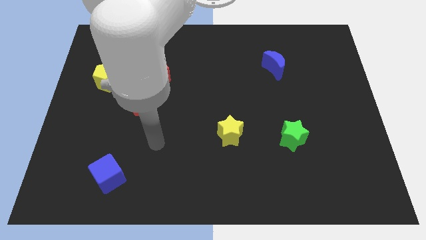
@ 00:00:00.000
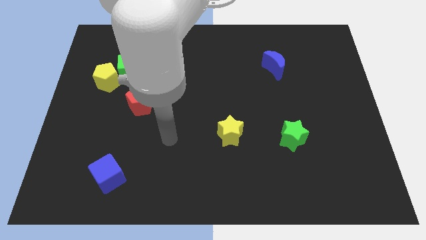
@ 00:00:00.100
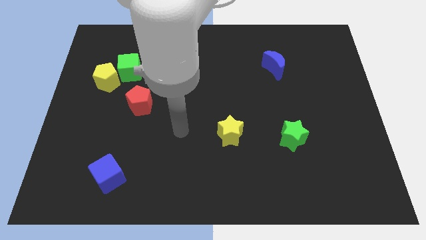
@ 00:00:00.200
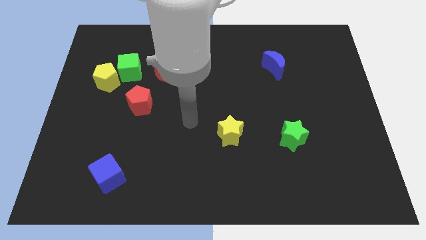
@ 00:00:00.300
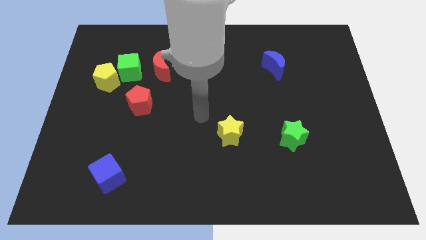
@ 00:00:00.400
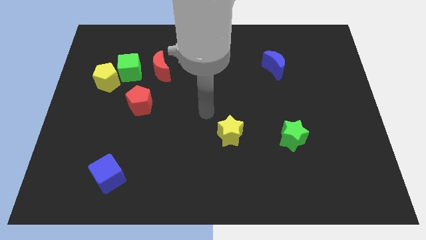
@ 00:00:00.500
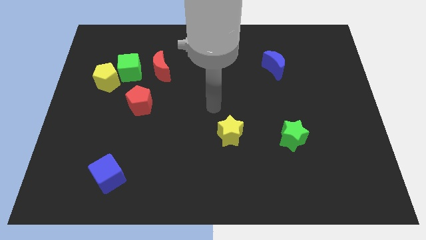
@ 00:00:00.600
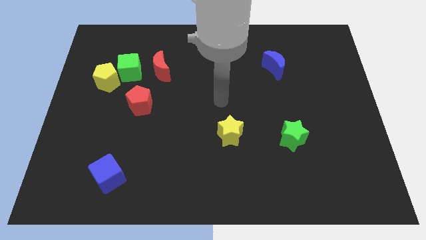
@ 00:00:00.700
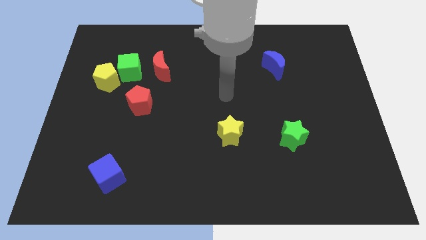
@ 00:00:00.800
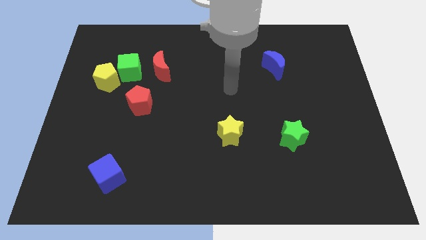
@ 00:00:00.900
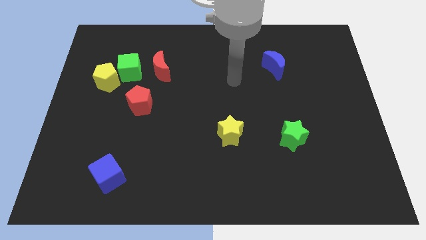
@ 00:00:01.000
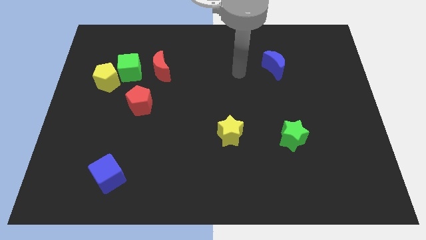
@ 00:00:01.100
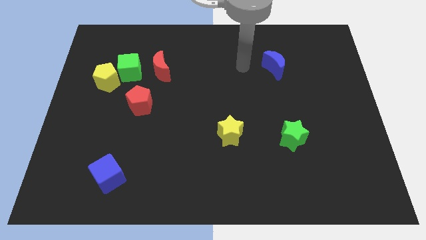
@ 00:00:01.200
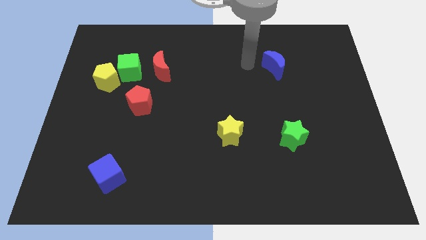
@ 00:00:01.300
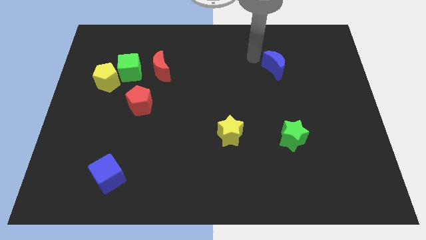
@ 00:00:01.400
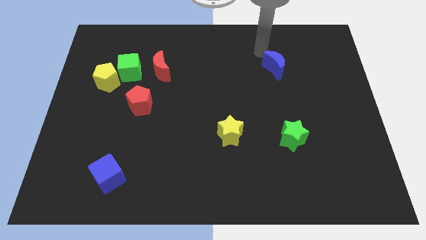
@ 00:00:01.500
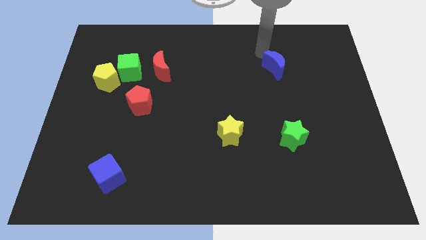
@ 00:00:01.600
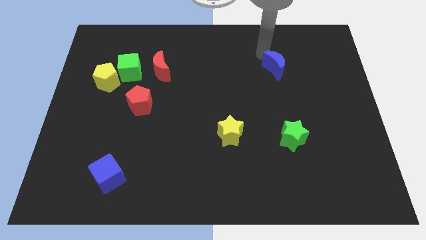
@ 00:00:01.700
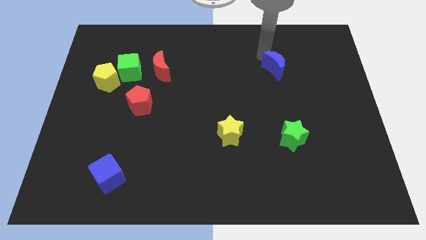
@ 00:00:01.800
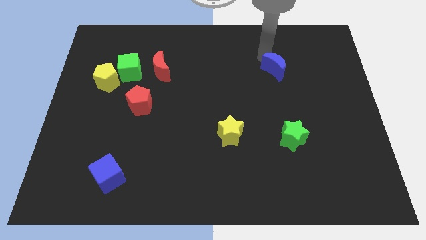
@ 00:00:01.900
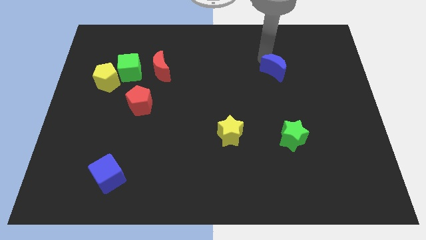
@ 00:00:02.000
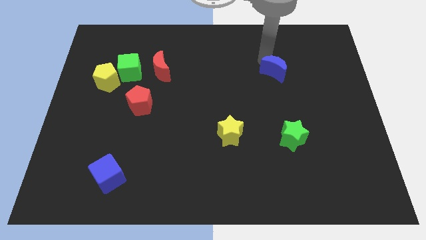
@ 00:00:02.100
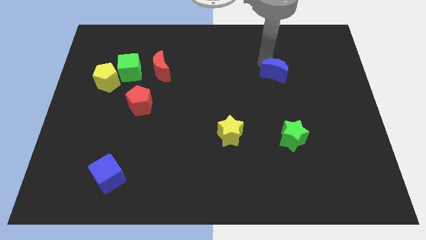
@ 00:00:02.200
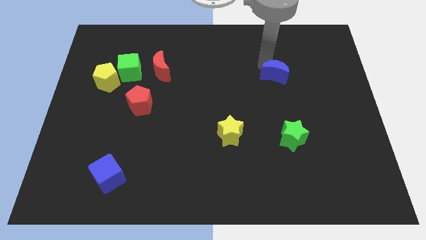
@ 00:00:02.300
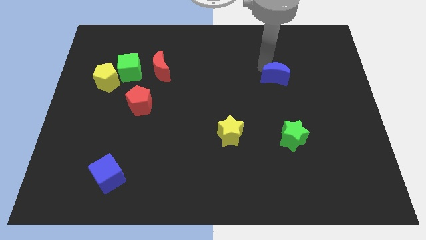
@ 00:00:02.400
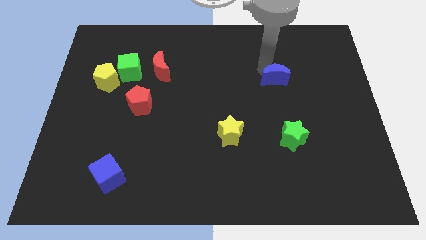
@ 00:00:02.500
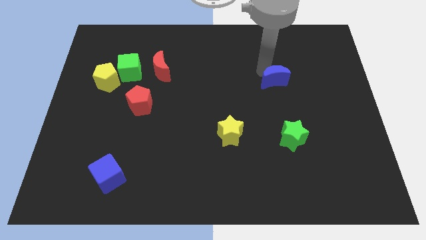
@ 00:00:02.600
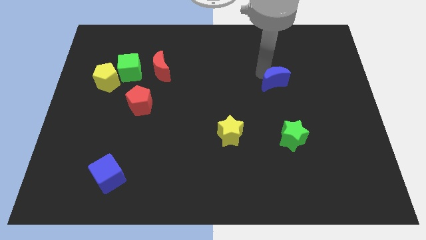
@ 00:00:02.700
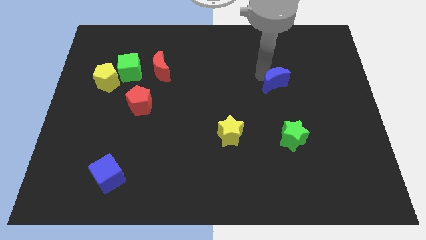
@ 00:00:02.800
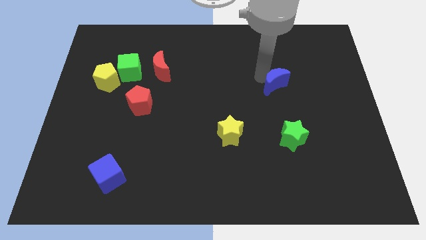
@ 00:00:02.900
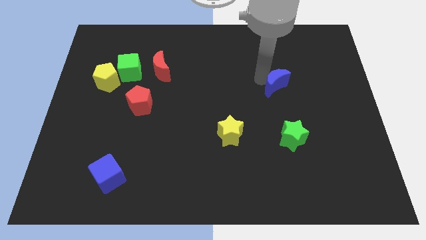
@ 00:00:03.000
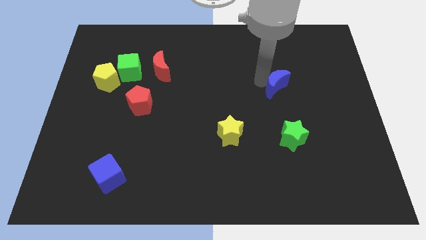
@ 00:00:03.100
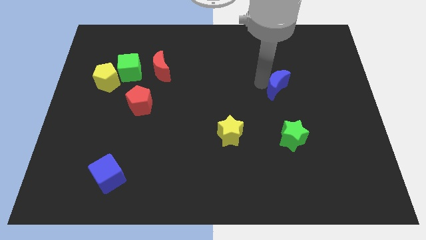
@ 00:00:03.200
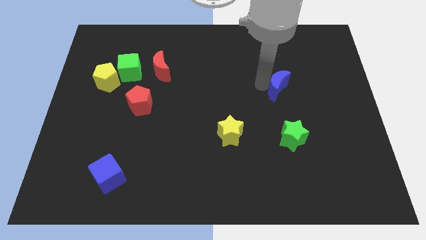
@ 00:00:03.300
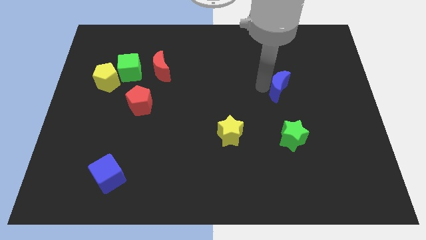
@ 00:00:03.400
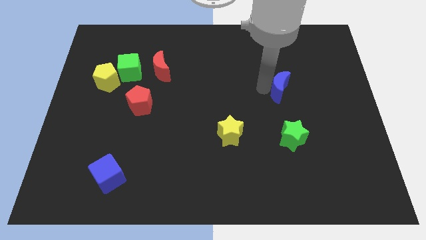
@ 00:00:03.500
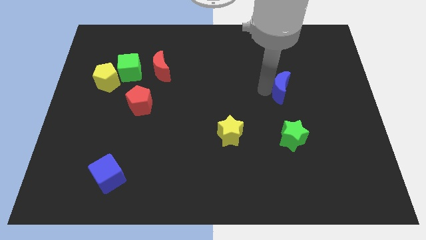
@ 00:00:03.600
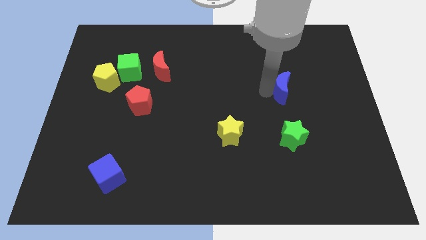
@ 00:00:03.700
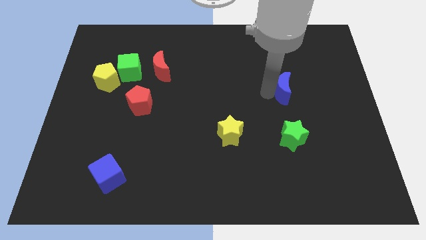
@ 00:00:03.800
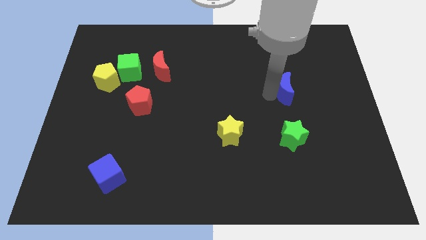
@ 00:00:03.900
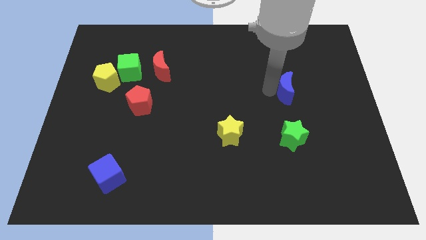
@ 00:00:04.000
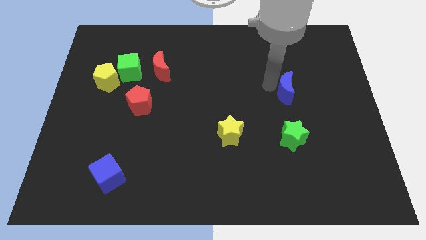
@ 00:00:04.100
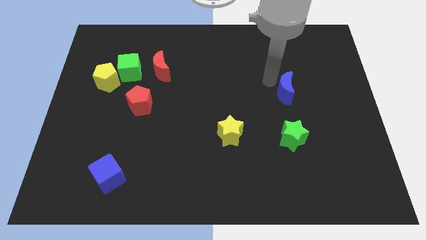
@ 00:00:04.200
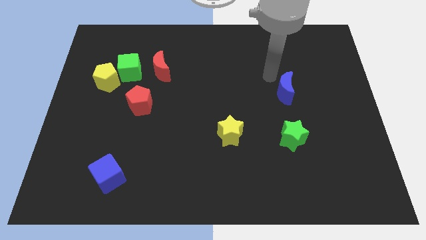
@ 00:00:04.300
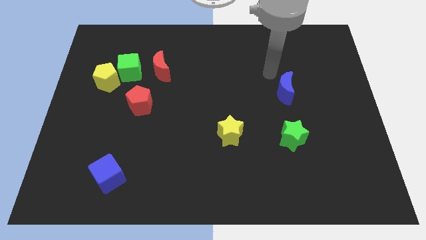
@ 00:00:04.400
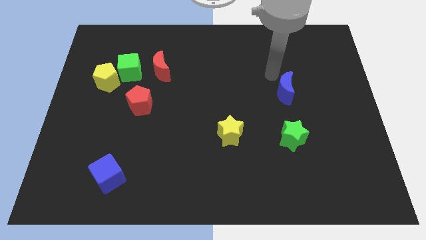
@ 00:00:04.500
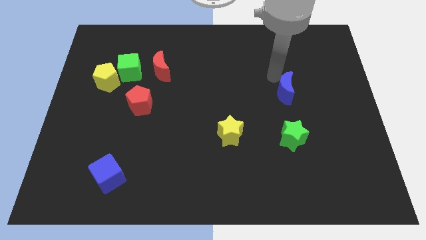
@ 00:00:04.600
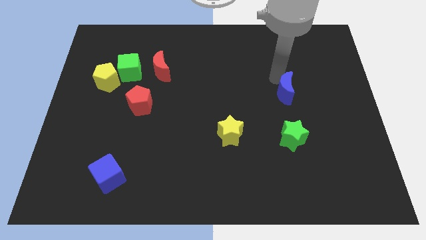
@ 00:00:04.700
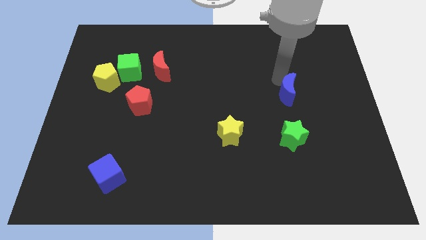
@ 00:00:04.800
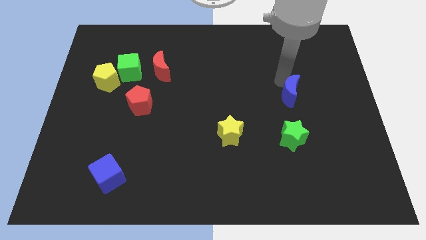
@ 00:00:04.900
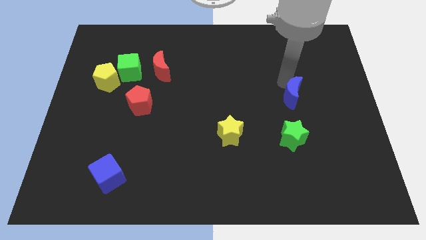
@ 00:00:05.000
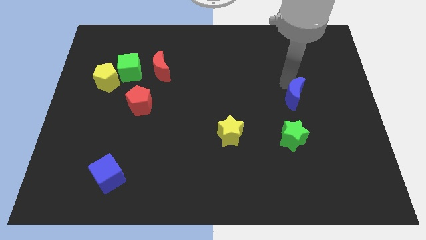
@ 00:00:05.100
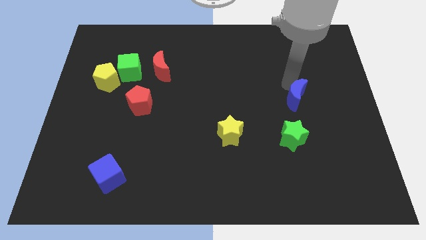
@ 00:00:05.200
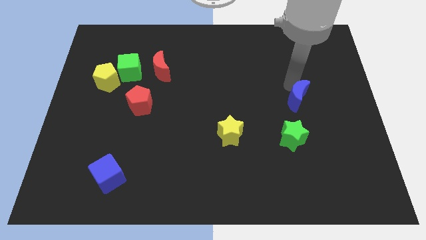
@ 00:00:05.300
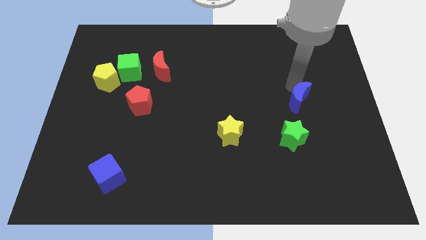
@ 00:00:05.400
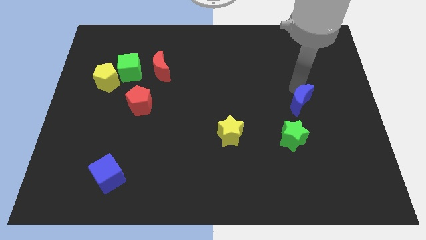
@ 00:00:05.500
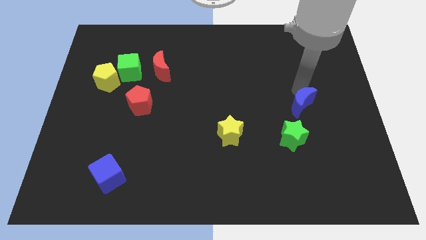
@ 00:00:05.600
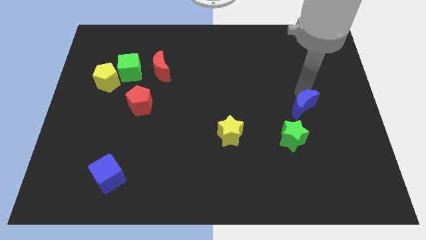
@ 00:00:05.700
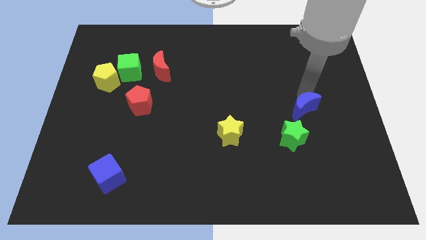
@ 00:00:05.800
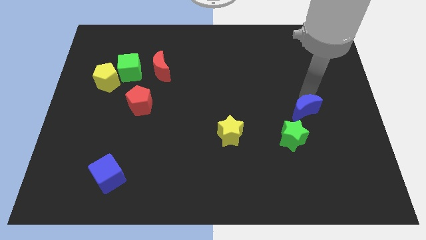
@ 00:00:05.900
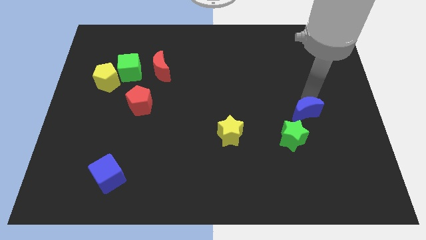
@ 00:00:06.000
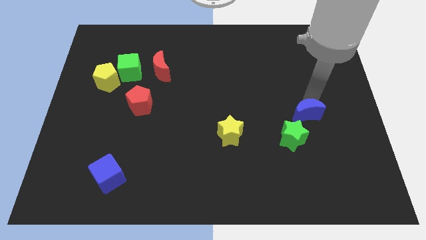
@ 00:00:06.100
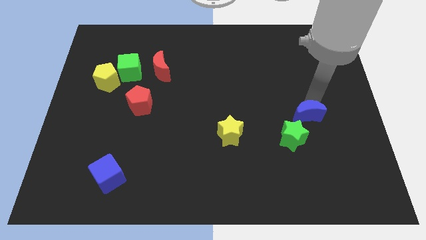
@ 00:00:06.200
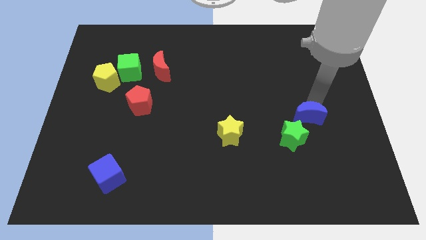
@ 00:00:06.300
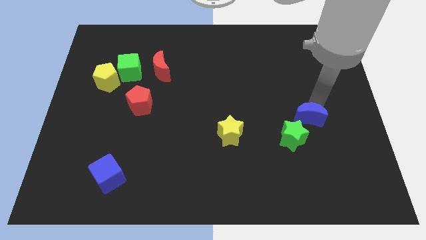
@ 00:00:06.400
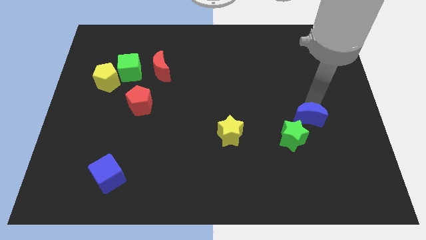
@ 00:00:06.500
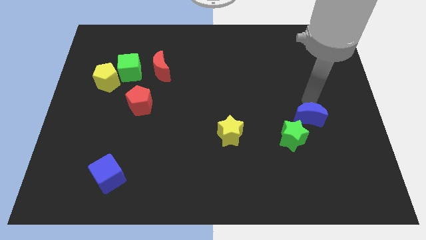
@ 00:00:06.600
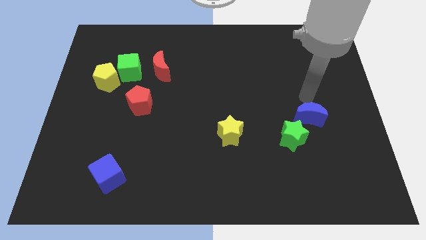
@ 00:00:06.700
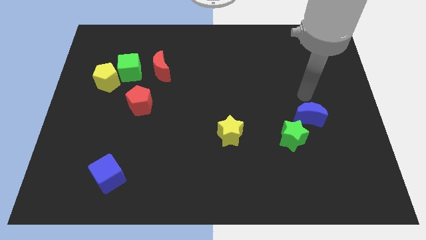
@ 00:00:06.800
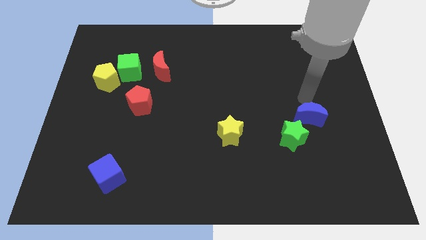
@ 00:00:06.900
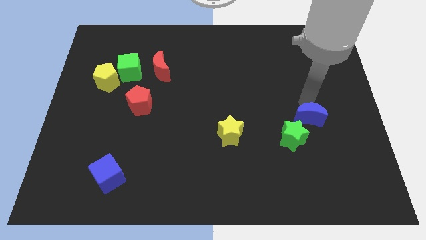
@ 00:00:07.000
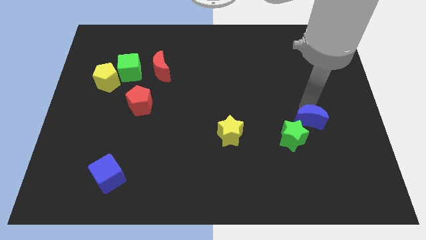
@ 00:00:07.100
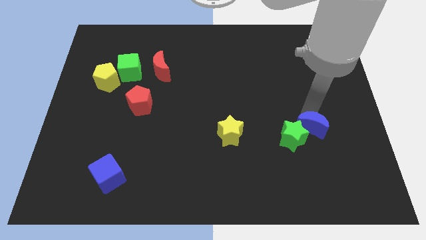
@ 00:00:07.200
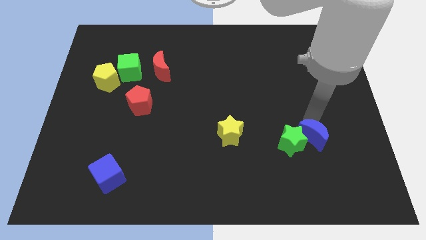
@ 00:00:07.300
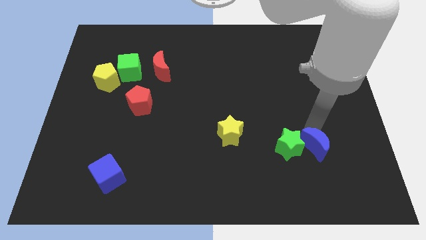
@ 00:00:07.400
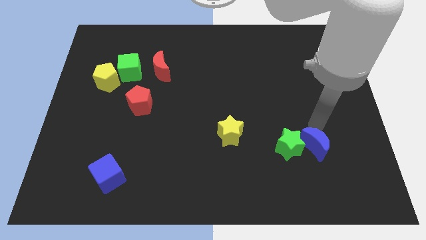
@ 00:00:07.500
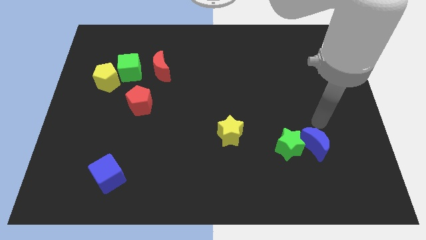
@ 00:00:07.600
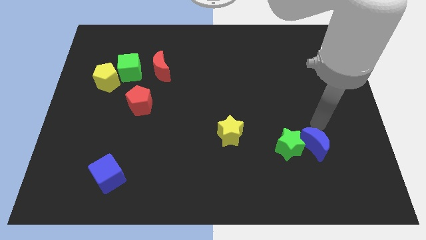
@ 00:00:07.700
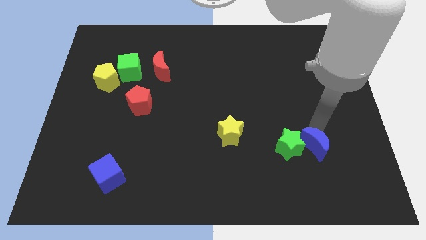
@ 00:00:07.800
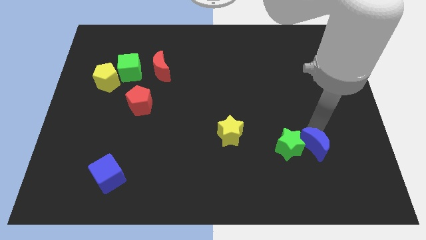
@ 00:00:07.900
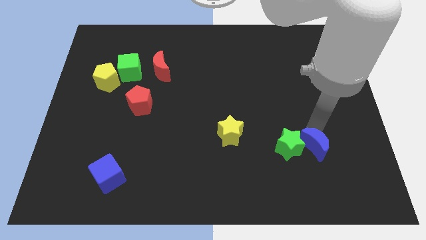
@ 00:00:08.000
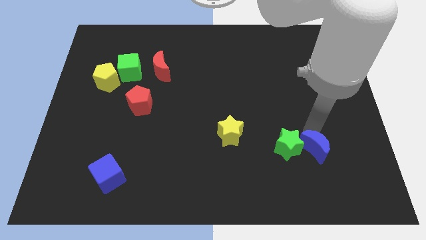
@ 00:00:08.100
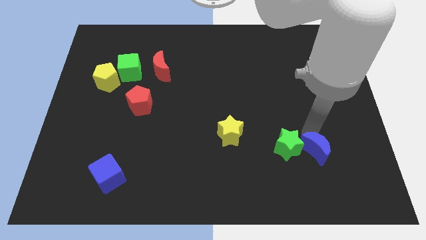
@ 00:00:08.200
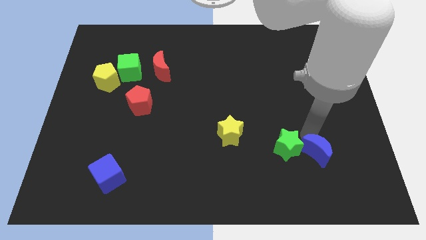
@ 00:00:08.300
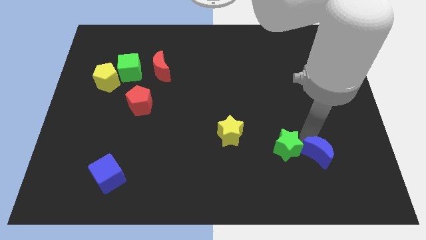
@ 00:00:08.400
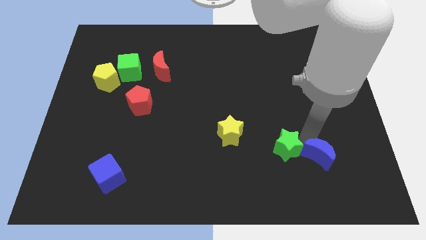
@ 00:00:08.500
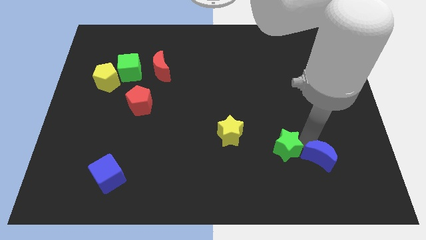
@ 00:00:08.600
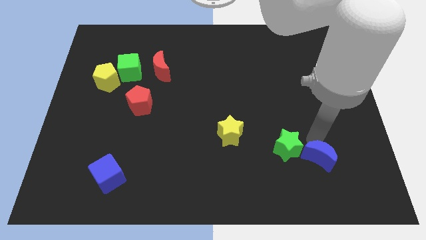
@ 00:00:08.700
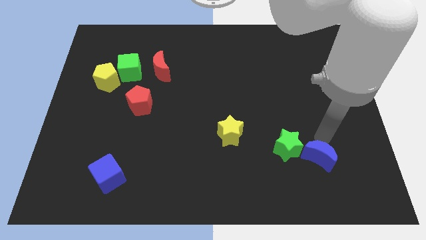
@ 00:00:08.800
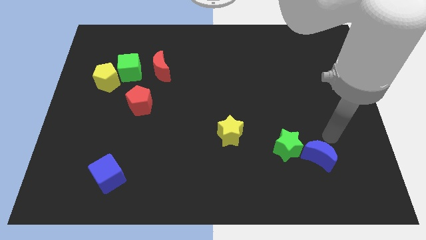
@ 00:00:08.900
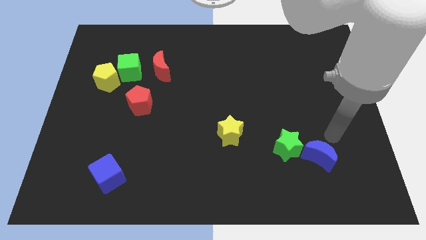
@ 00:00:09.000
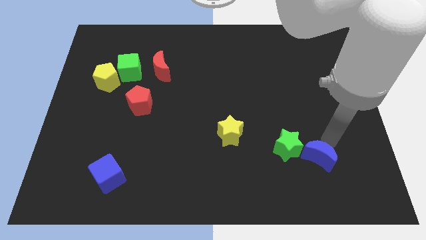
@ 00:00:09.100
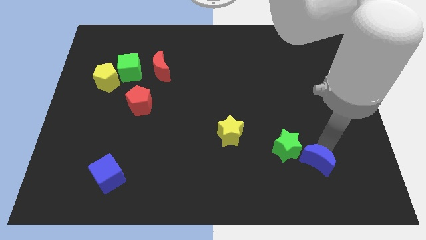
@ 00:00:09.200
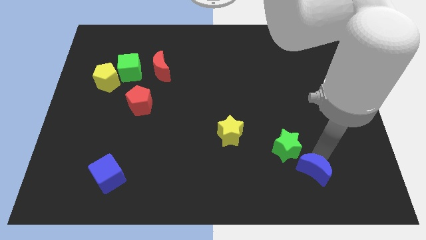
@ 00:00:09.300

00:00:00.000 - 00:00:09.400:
move the blue moon to the bottom of the green star
